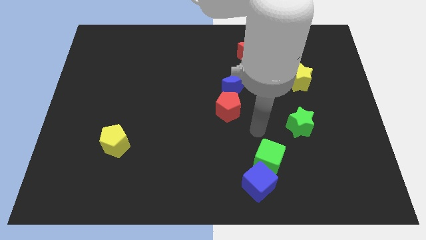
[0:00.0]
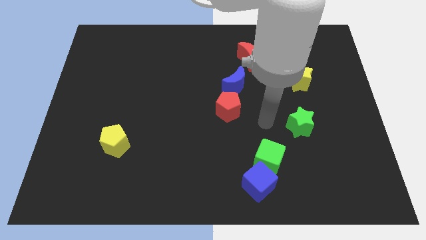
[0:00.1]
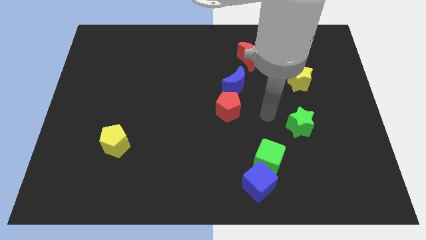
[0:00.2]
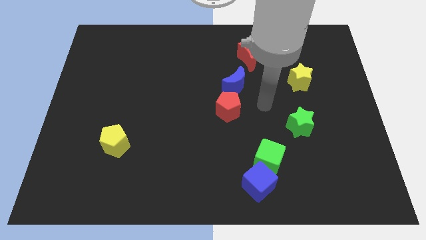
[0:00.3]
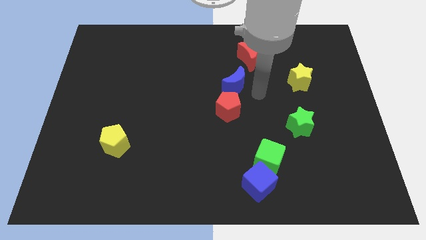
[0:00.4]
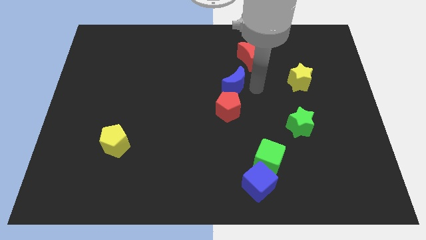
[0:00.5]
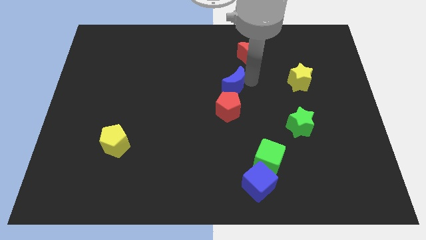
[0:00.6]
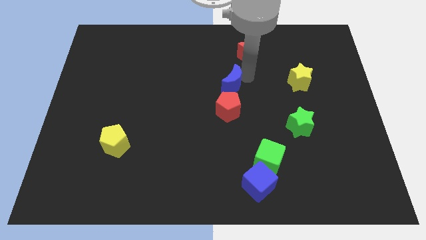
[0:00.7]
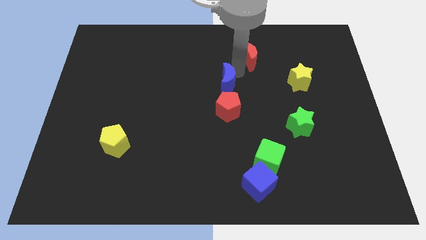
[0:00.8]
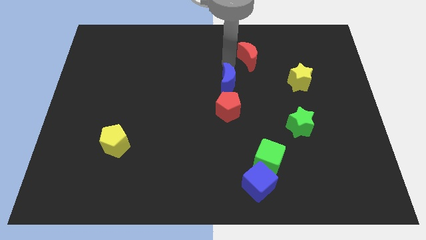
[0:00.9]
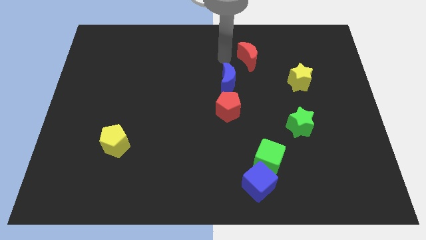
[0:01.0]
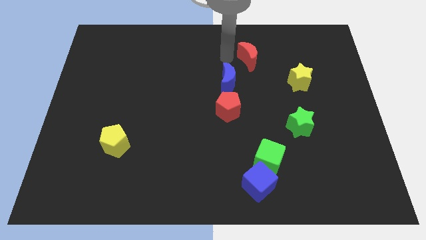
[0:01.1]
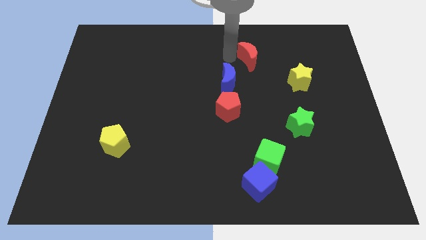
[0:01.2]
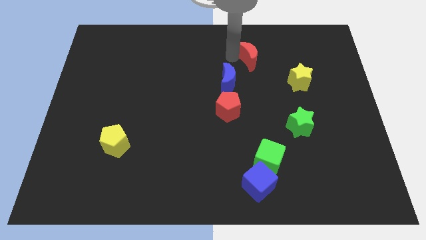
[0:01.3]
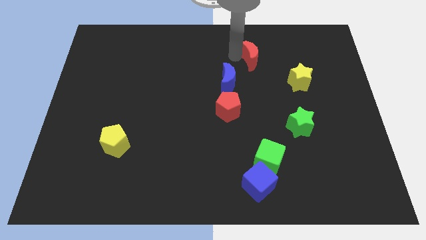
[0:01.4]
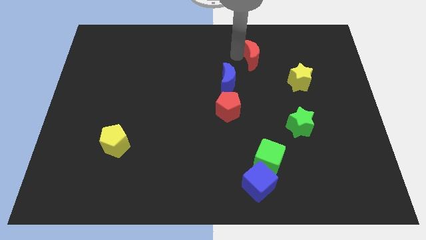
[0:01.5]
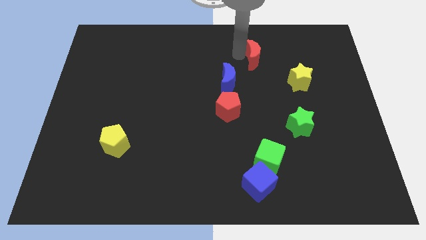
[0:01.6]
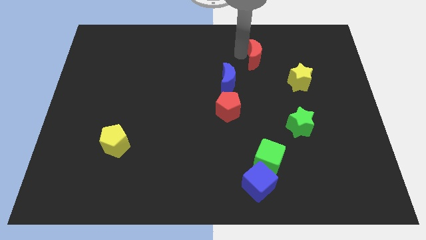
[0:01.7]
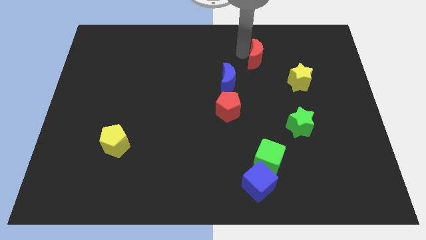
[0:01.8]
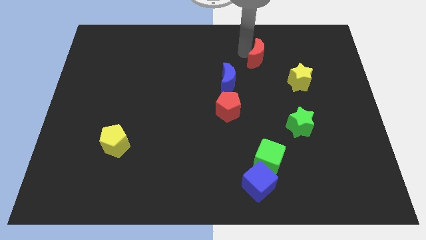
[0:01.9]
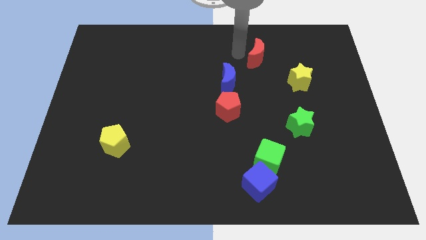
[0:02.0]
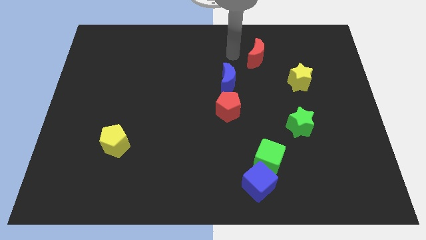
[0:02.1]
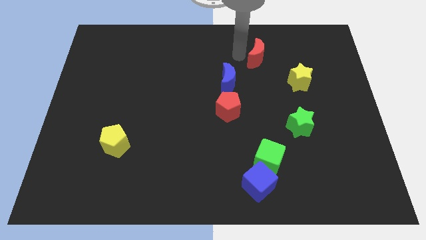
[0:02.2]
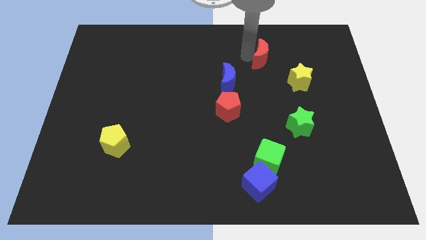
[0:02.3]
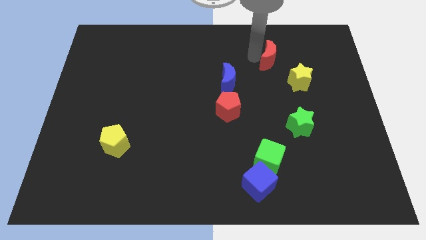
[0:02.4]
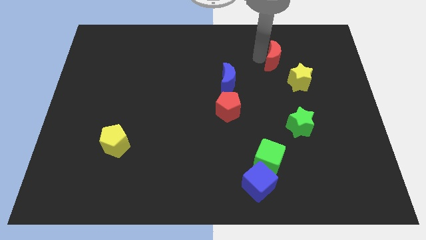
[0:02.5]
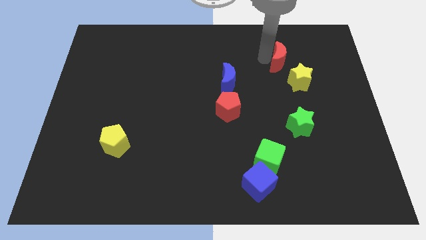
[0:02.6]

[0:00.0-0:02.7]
slide the red moon right a little bit

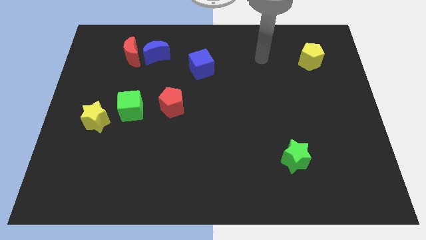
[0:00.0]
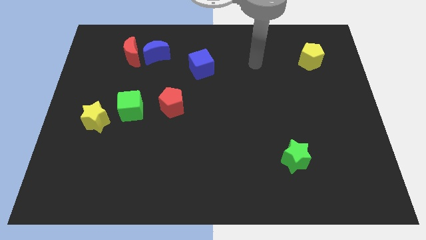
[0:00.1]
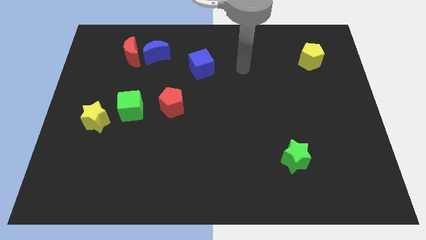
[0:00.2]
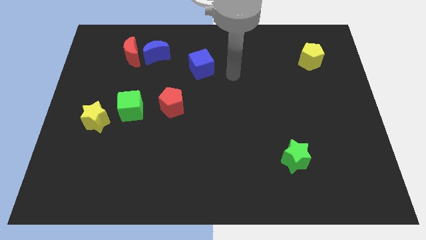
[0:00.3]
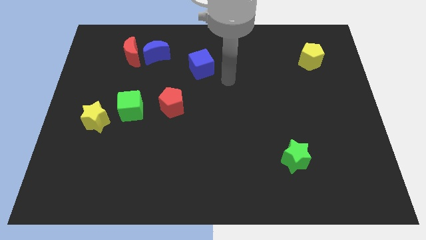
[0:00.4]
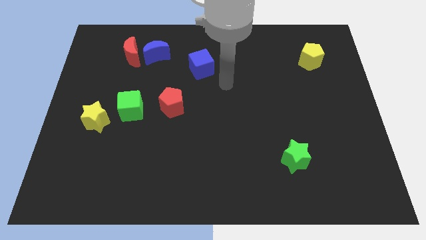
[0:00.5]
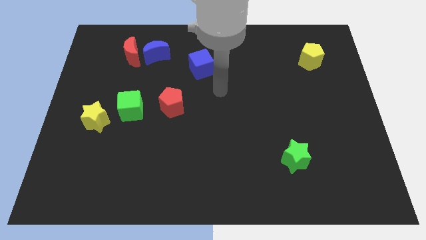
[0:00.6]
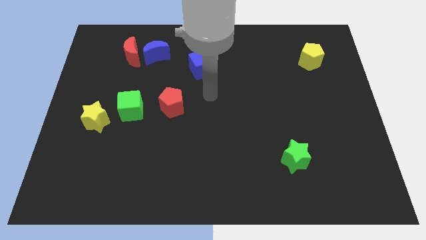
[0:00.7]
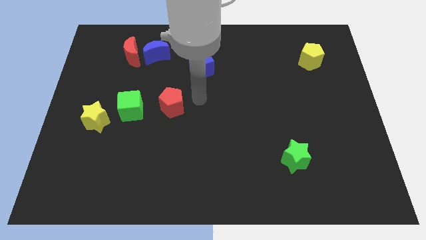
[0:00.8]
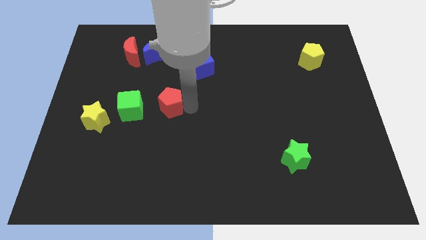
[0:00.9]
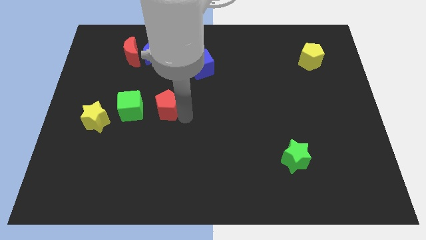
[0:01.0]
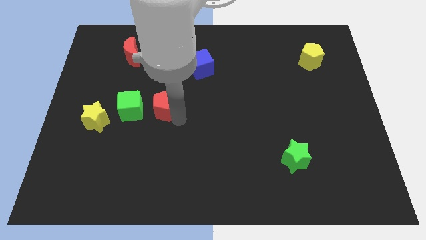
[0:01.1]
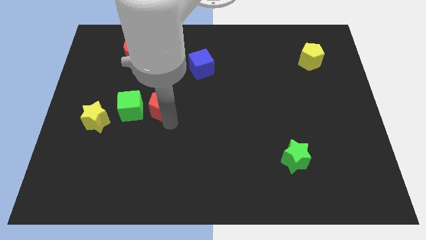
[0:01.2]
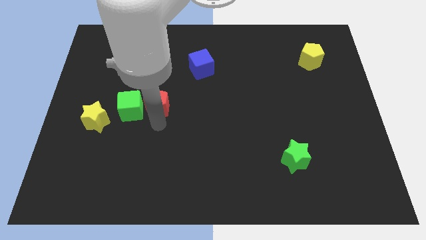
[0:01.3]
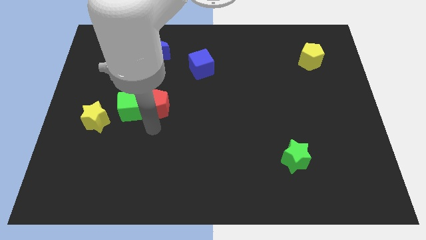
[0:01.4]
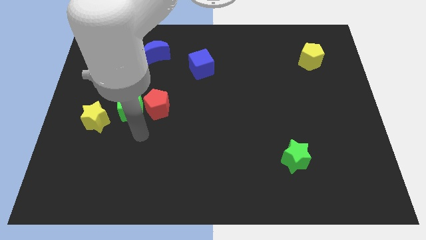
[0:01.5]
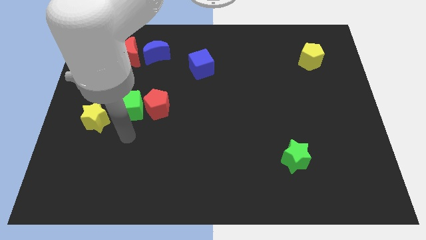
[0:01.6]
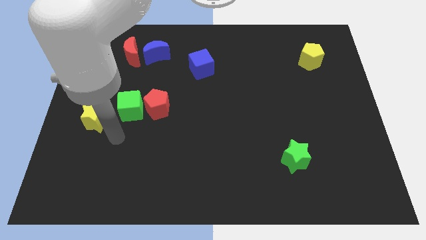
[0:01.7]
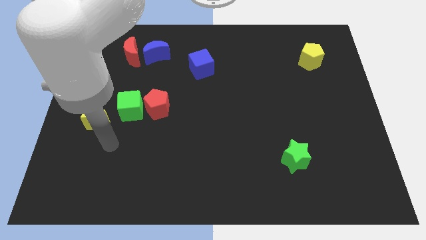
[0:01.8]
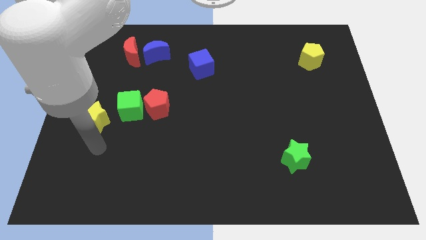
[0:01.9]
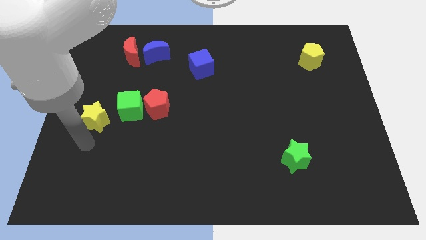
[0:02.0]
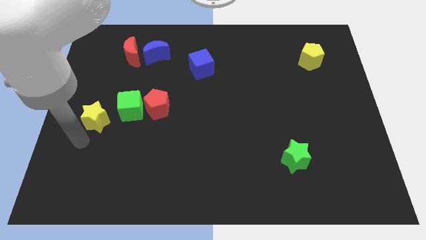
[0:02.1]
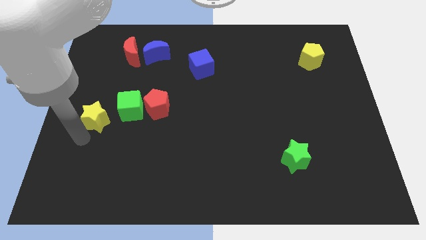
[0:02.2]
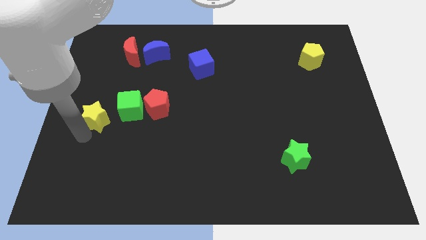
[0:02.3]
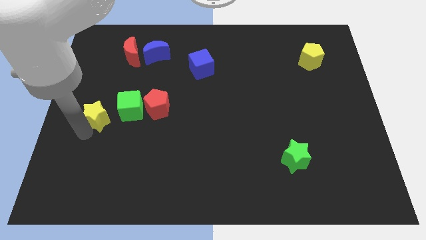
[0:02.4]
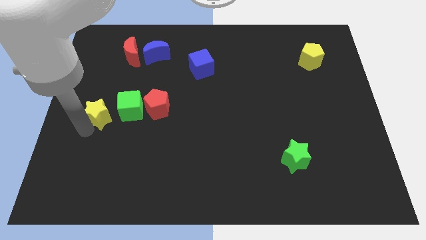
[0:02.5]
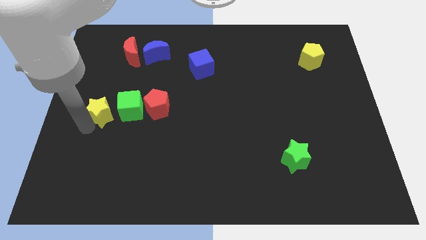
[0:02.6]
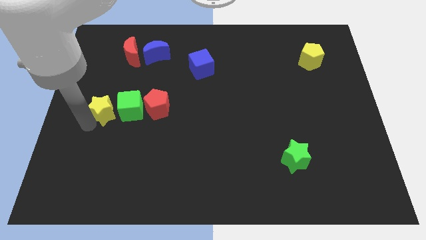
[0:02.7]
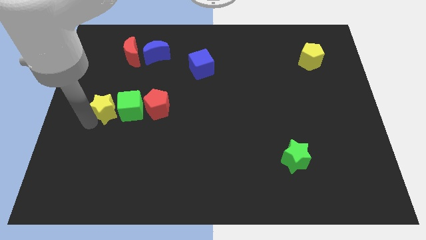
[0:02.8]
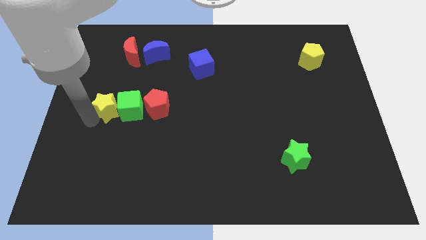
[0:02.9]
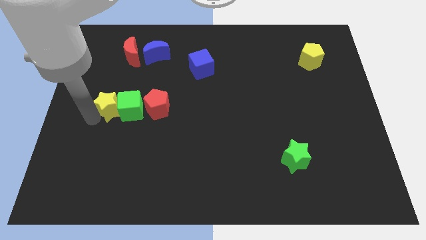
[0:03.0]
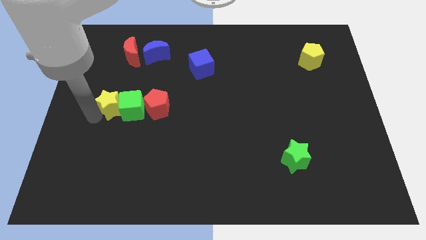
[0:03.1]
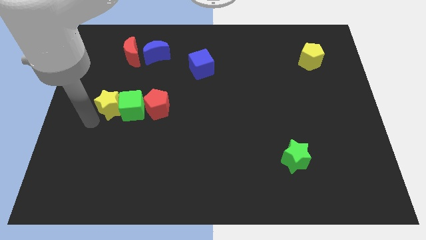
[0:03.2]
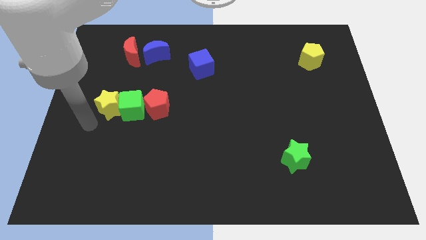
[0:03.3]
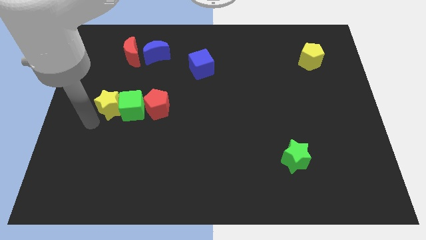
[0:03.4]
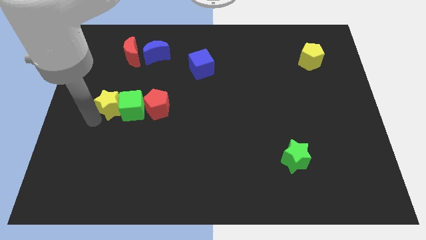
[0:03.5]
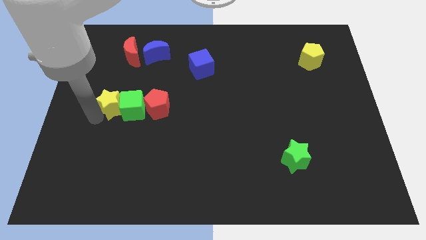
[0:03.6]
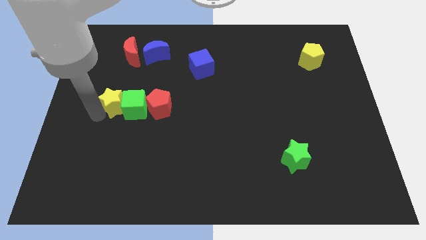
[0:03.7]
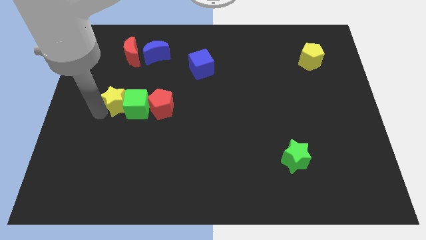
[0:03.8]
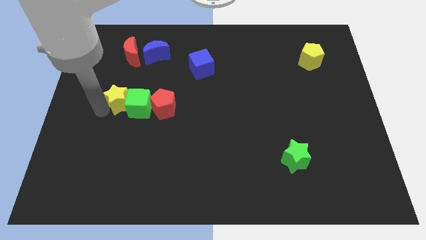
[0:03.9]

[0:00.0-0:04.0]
slide the yellow star upwards and then to the right slightly

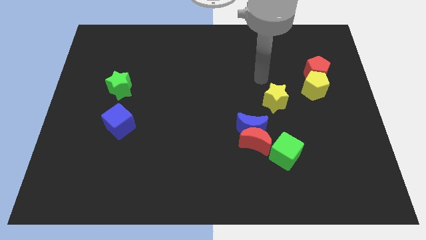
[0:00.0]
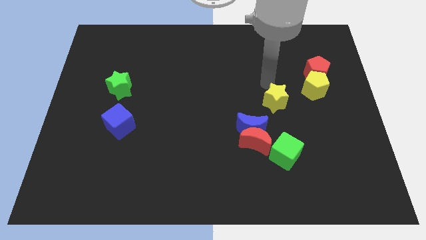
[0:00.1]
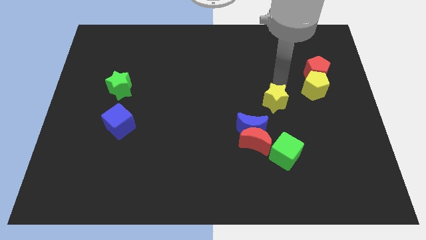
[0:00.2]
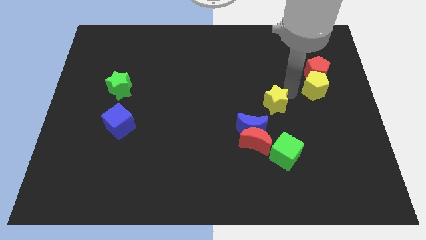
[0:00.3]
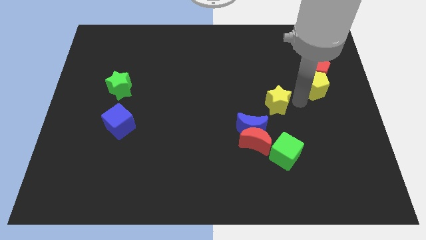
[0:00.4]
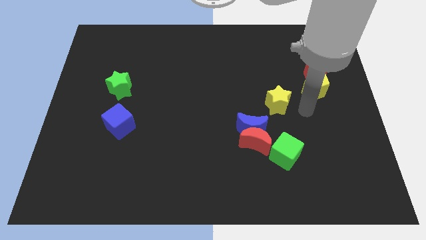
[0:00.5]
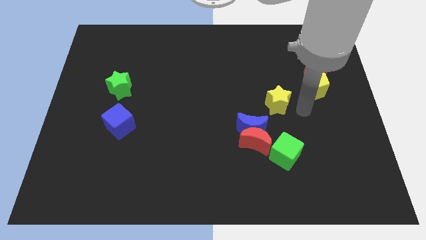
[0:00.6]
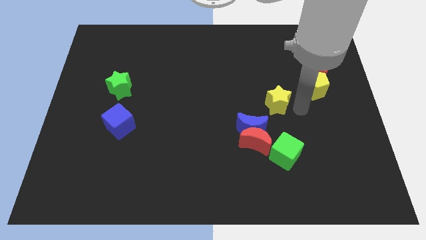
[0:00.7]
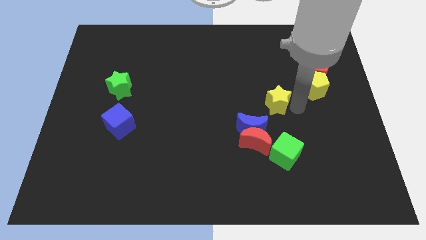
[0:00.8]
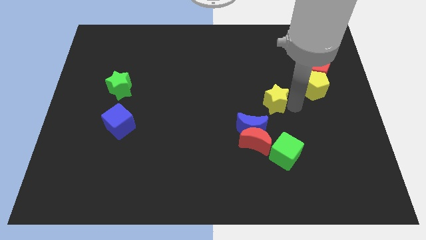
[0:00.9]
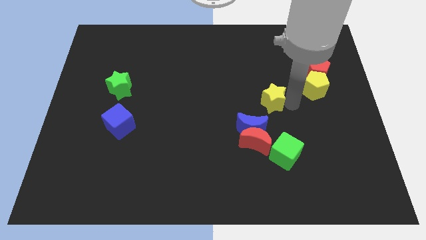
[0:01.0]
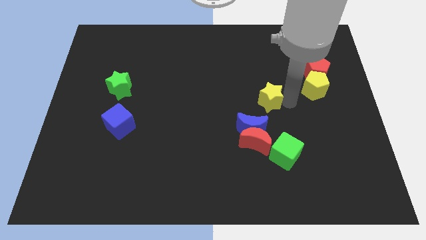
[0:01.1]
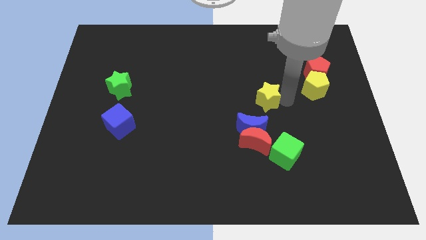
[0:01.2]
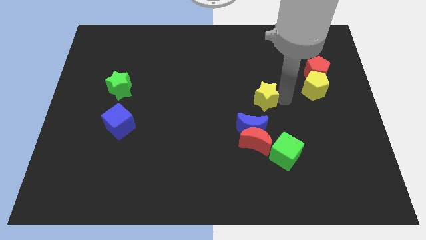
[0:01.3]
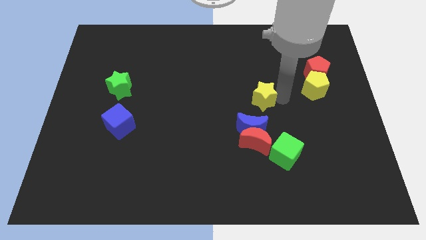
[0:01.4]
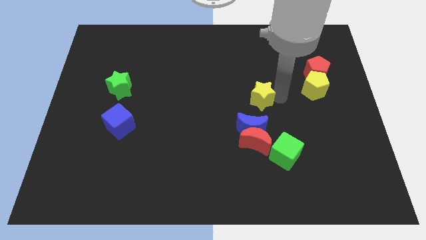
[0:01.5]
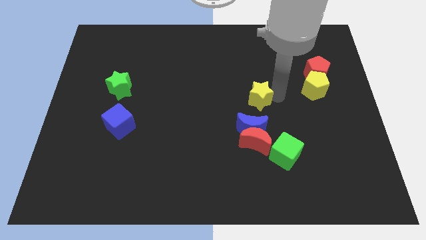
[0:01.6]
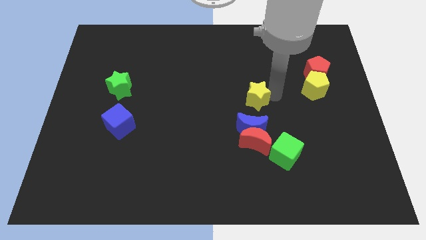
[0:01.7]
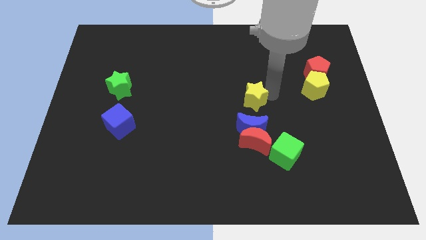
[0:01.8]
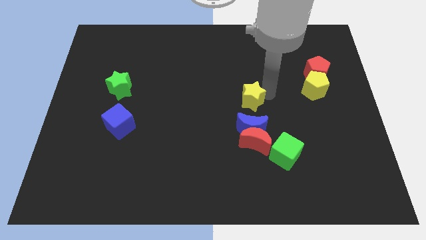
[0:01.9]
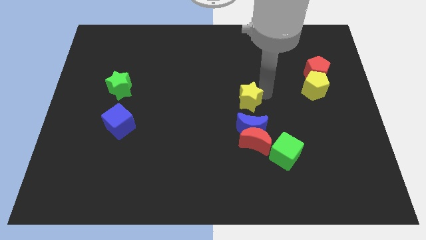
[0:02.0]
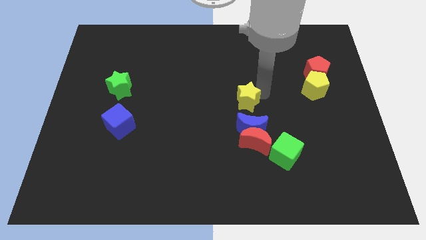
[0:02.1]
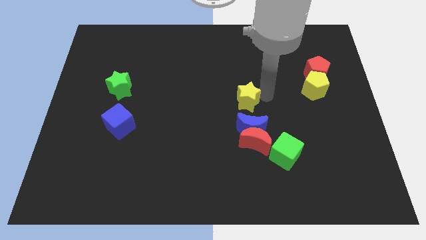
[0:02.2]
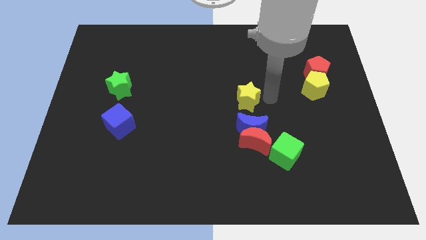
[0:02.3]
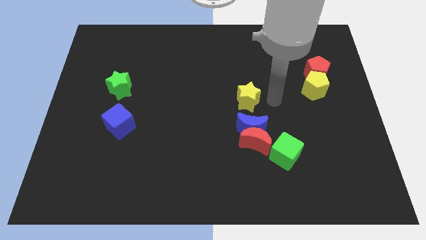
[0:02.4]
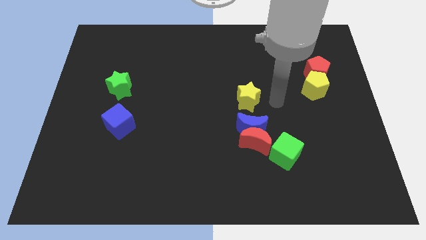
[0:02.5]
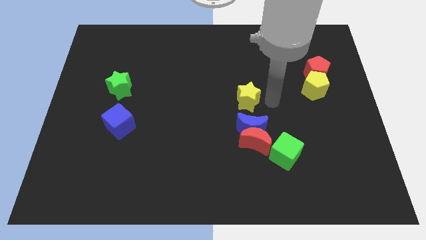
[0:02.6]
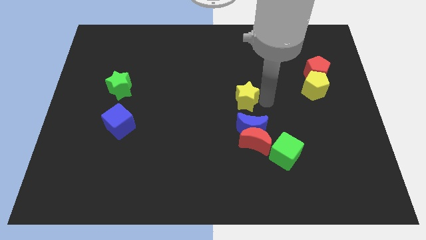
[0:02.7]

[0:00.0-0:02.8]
push the yellow star a bit left
